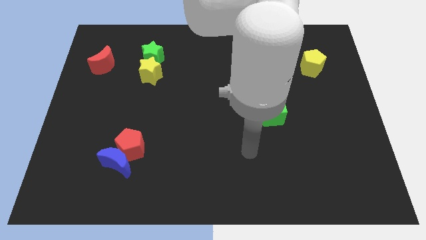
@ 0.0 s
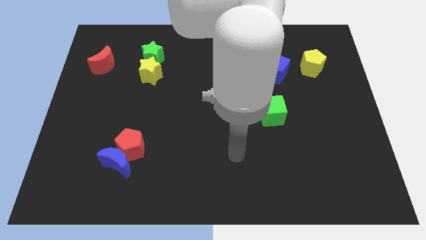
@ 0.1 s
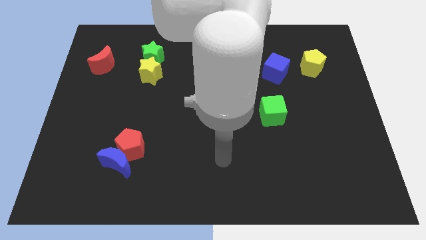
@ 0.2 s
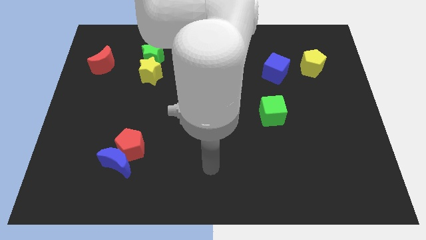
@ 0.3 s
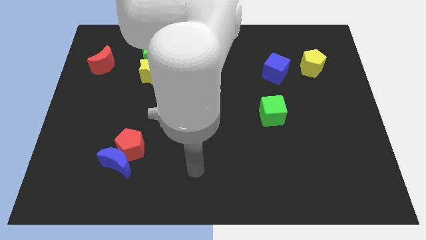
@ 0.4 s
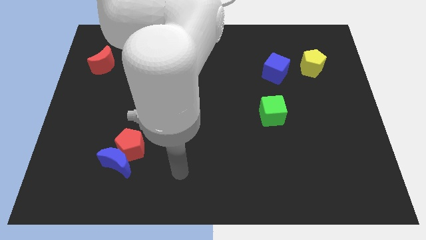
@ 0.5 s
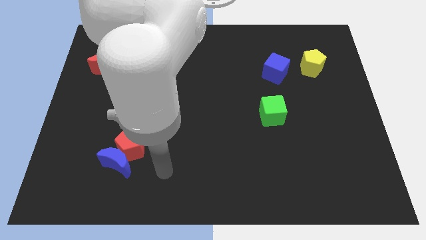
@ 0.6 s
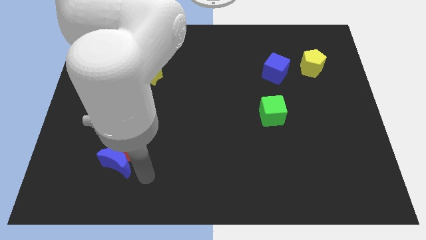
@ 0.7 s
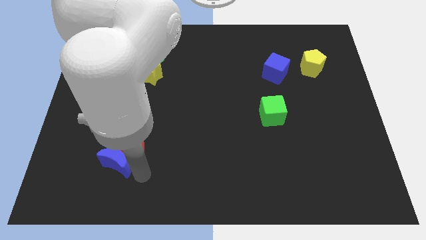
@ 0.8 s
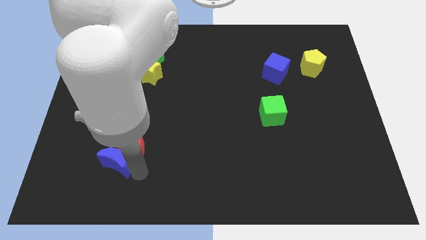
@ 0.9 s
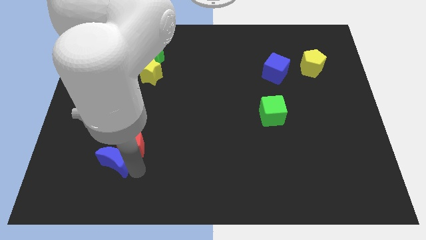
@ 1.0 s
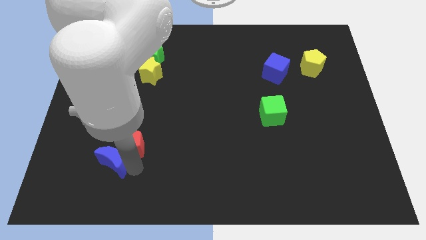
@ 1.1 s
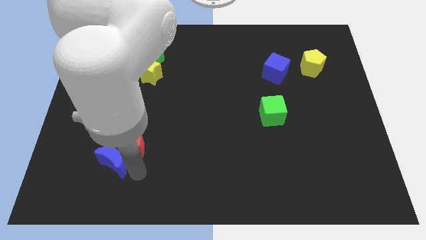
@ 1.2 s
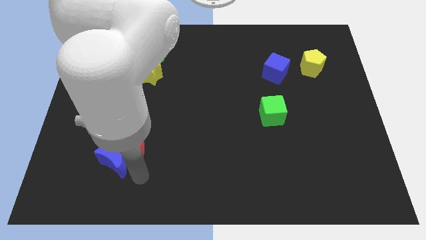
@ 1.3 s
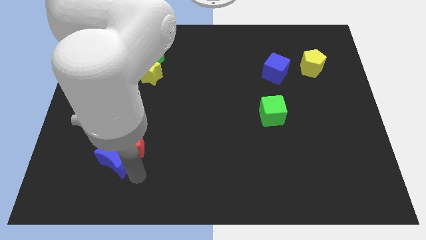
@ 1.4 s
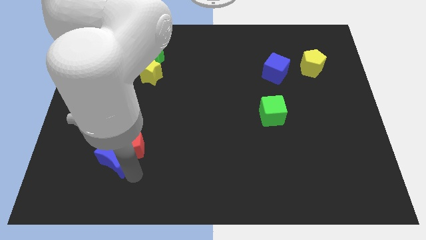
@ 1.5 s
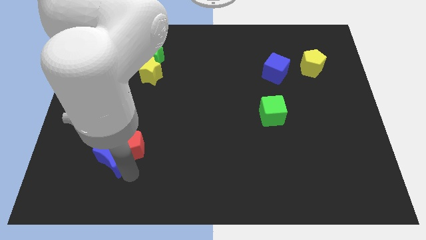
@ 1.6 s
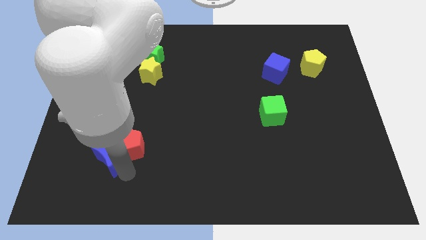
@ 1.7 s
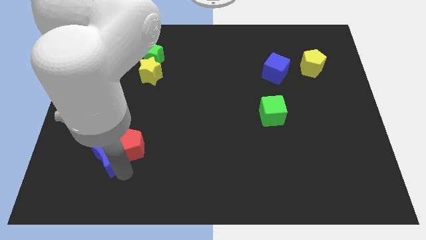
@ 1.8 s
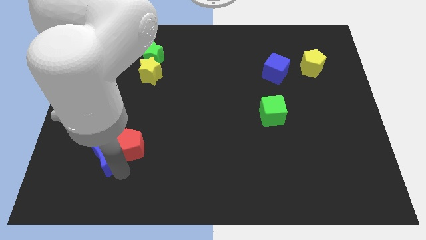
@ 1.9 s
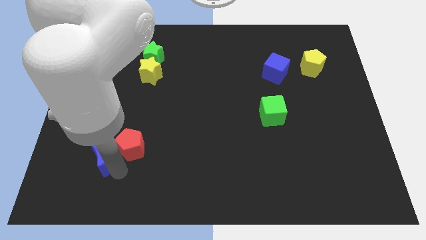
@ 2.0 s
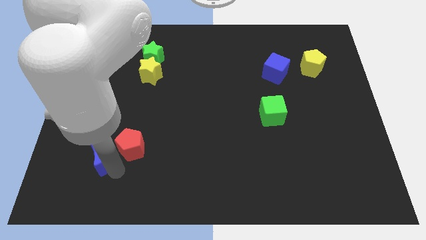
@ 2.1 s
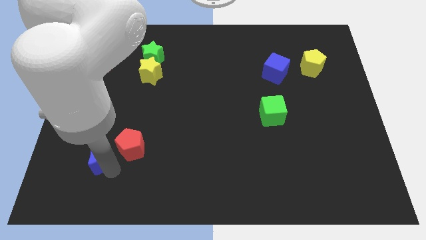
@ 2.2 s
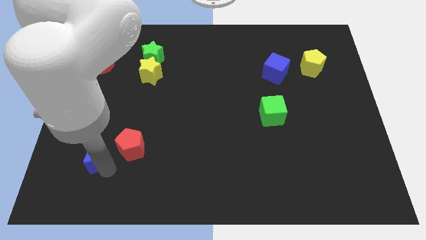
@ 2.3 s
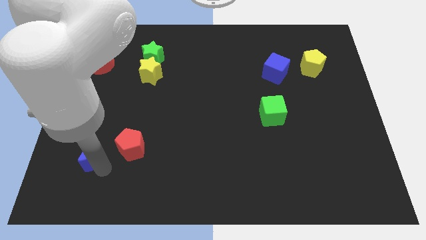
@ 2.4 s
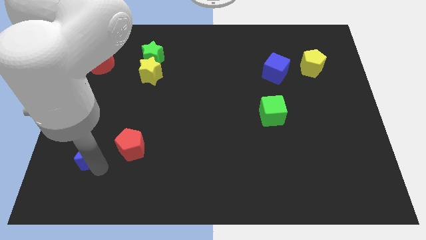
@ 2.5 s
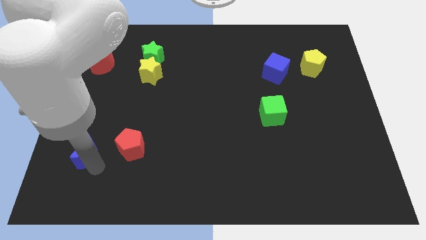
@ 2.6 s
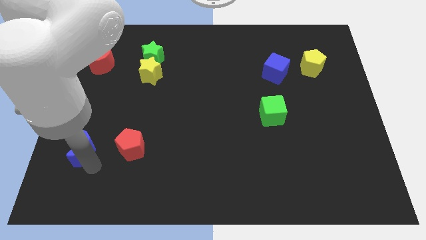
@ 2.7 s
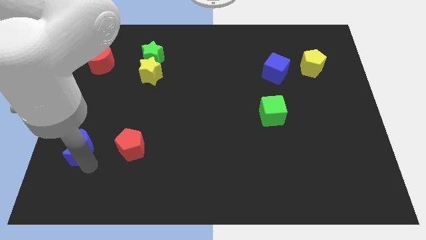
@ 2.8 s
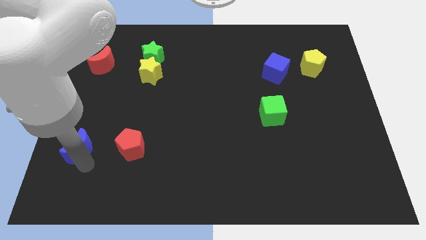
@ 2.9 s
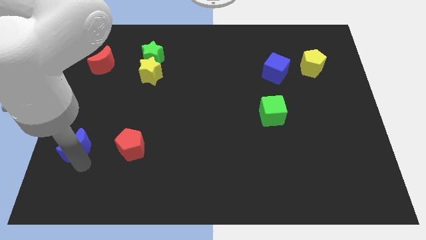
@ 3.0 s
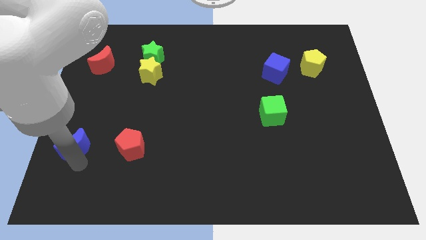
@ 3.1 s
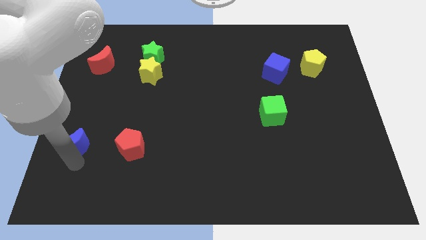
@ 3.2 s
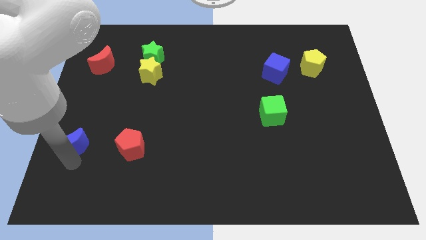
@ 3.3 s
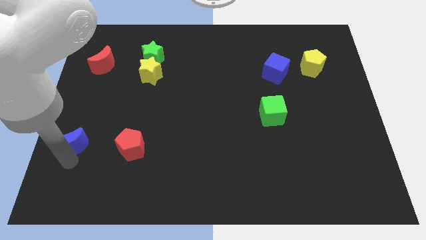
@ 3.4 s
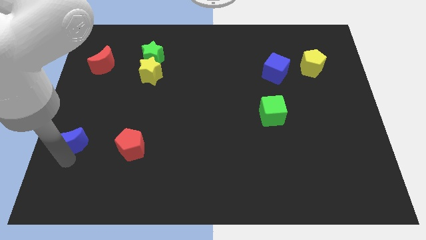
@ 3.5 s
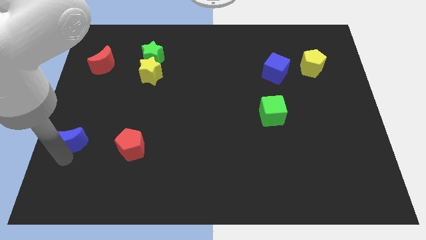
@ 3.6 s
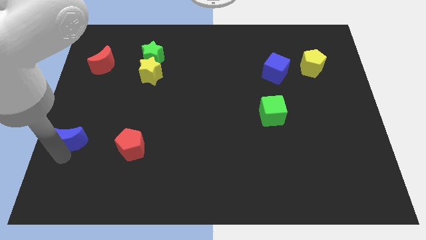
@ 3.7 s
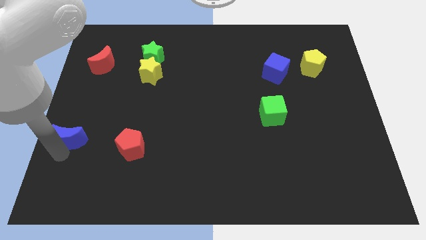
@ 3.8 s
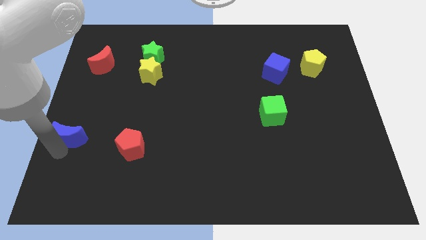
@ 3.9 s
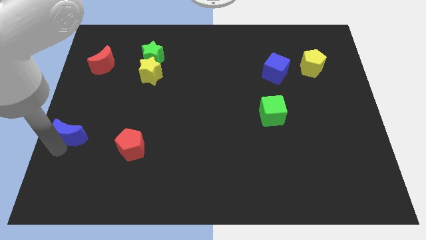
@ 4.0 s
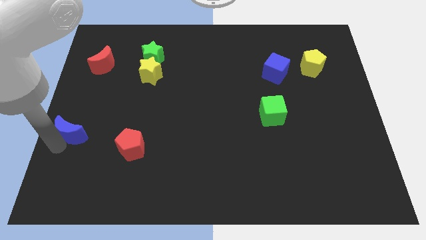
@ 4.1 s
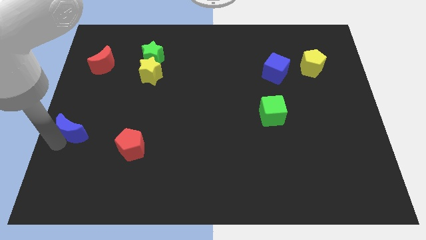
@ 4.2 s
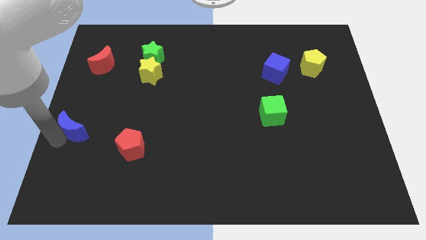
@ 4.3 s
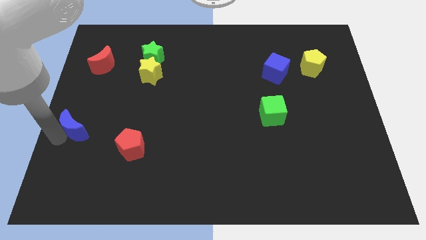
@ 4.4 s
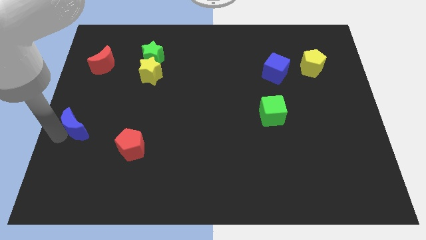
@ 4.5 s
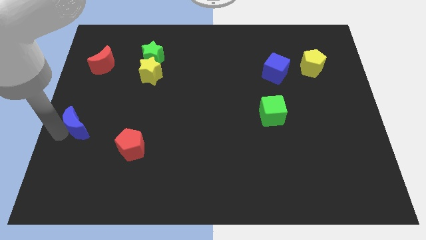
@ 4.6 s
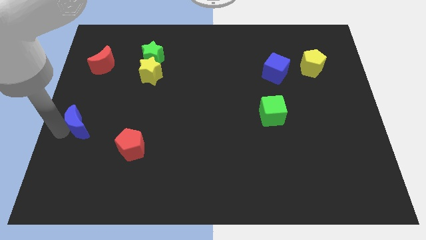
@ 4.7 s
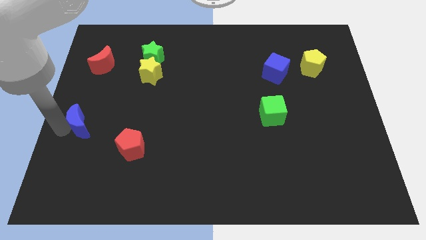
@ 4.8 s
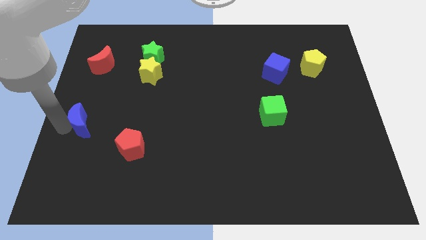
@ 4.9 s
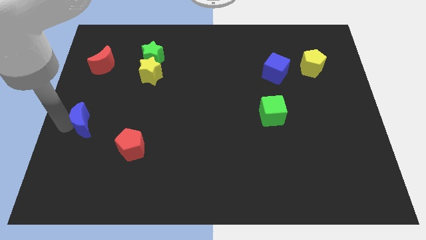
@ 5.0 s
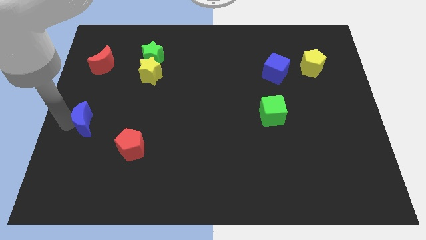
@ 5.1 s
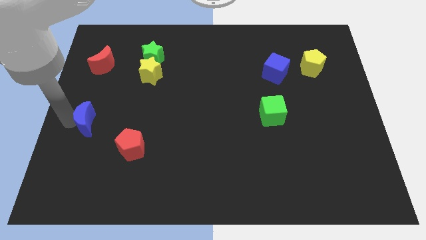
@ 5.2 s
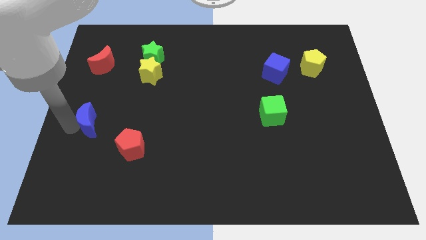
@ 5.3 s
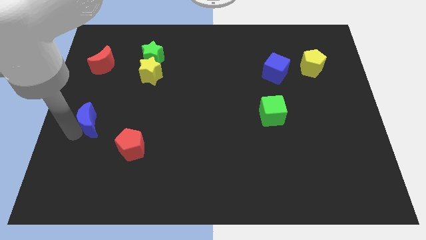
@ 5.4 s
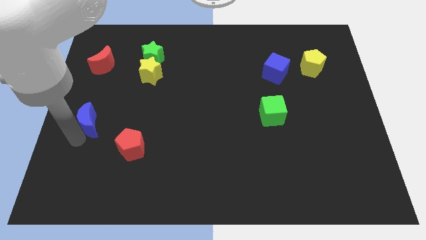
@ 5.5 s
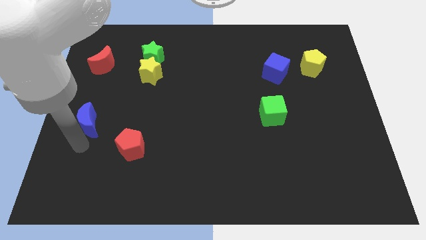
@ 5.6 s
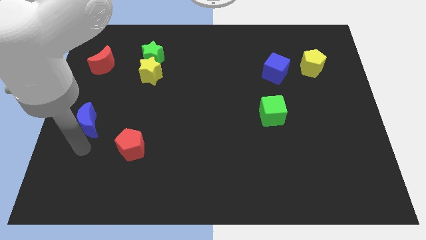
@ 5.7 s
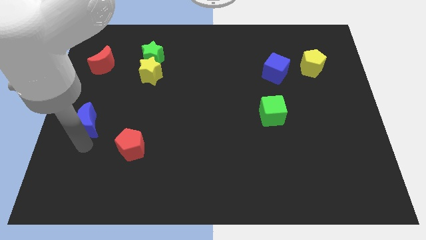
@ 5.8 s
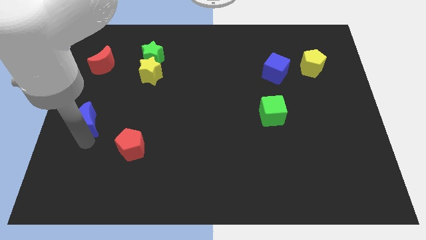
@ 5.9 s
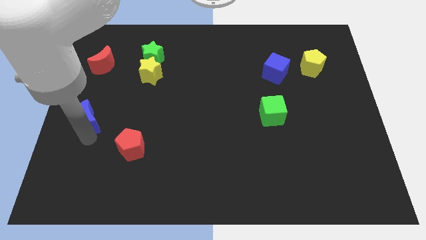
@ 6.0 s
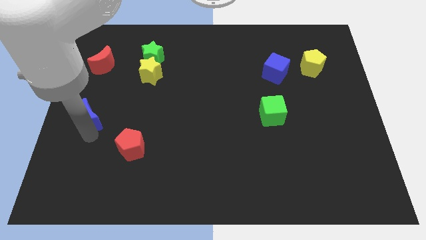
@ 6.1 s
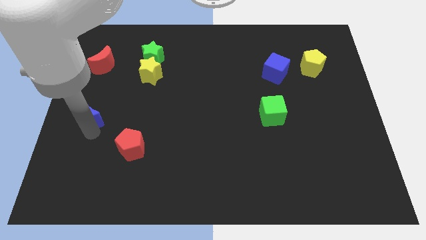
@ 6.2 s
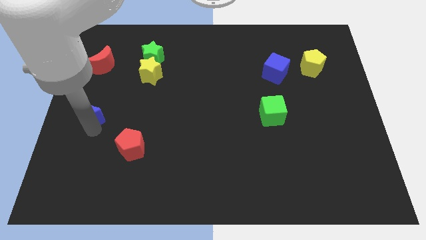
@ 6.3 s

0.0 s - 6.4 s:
put the blue moon to the bottom side of the red moon
